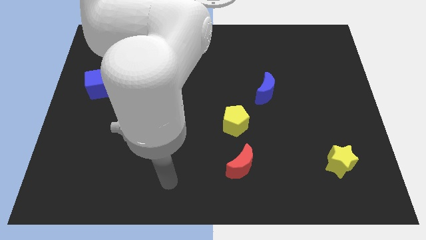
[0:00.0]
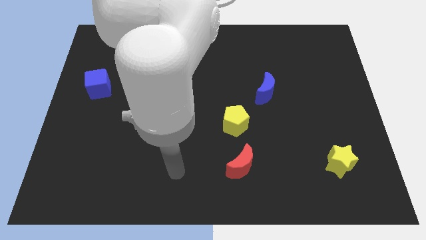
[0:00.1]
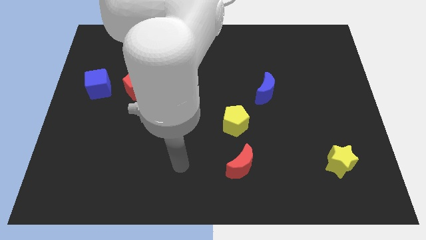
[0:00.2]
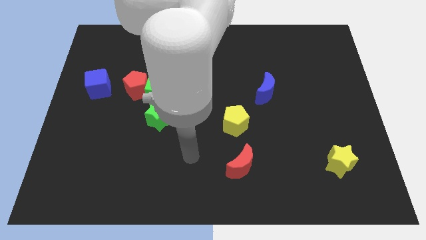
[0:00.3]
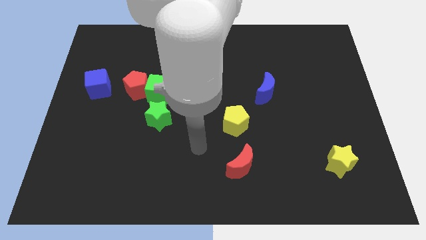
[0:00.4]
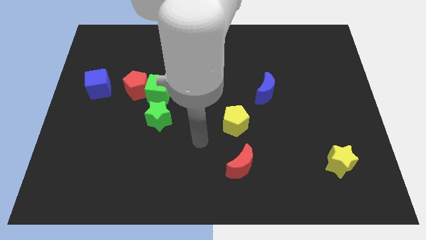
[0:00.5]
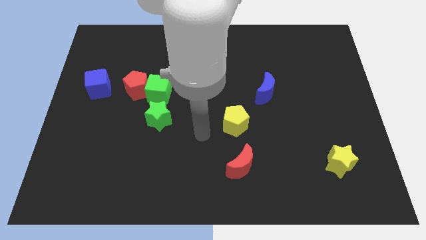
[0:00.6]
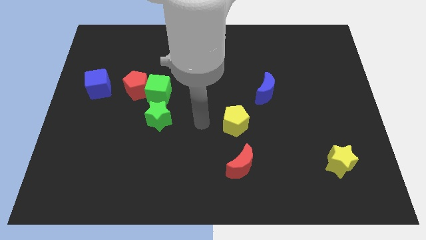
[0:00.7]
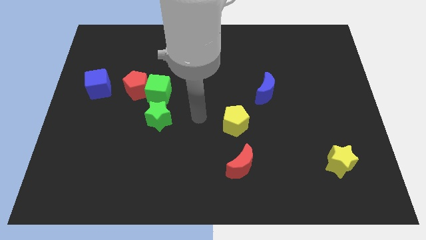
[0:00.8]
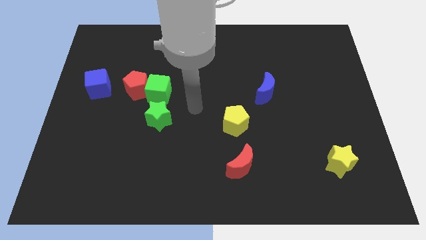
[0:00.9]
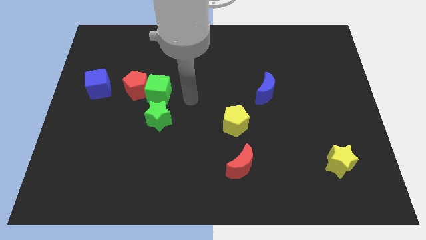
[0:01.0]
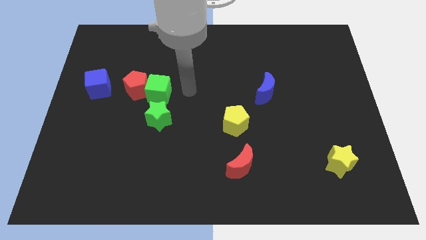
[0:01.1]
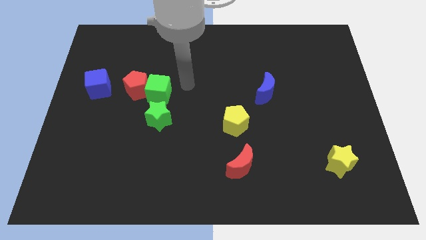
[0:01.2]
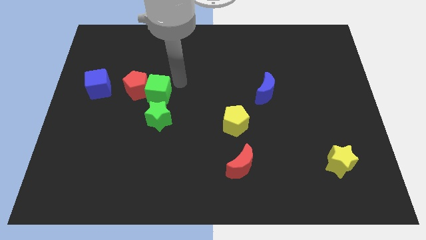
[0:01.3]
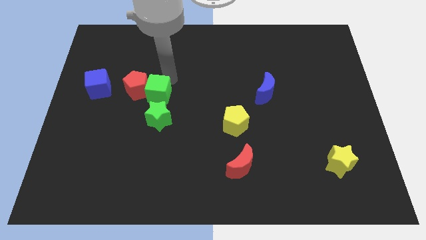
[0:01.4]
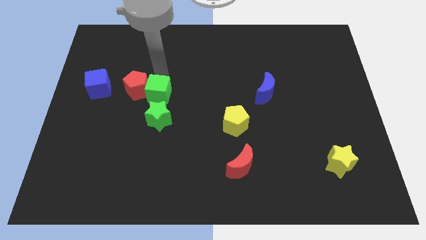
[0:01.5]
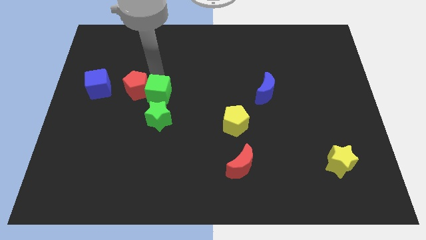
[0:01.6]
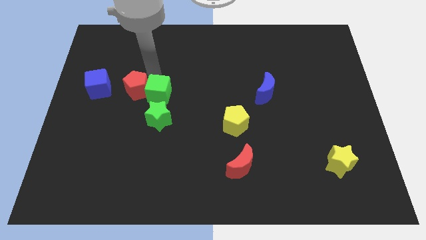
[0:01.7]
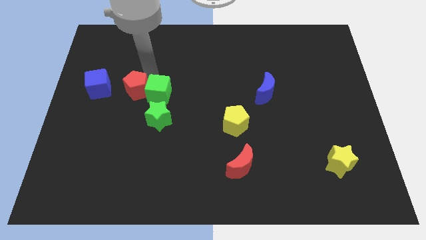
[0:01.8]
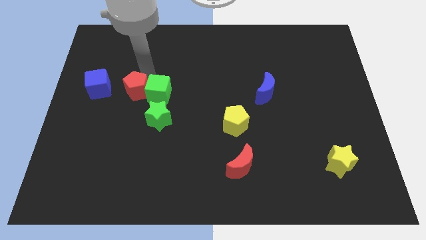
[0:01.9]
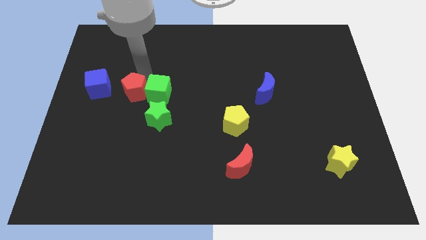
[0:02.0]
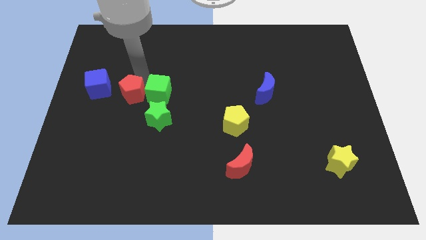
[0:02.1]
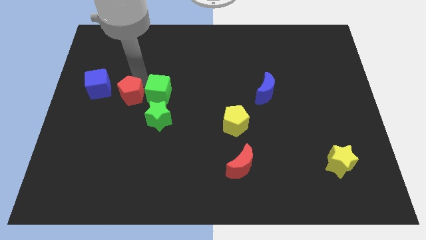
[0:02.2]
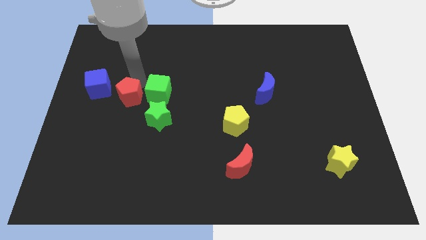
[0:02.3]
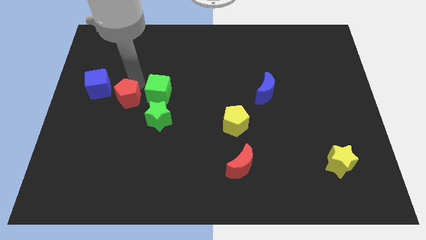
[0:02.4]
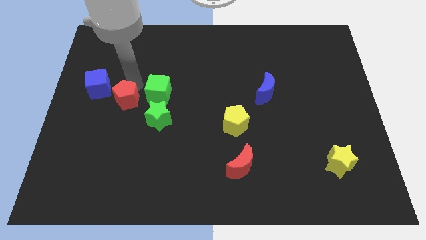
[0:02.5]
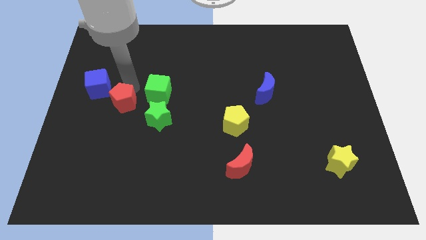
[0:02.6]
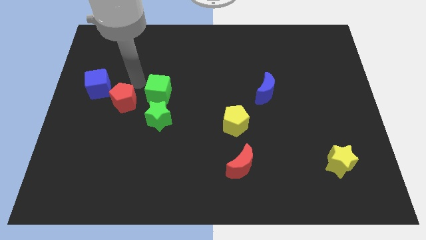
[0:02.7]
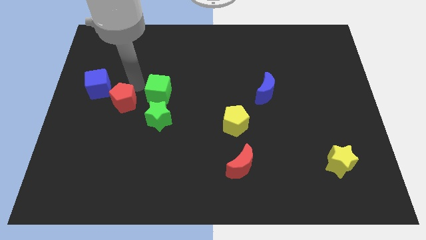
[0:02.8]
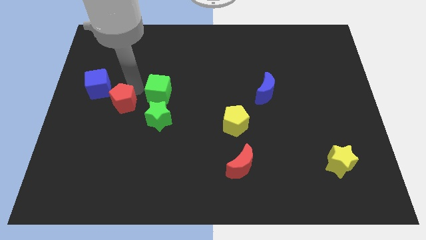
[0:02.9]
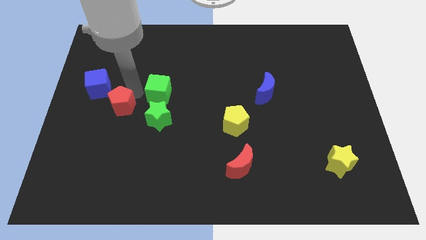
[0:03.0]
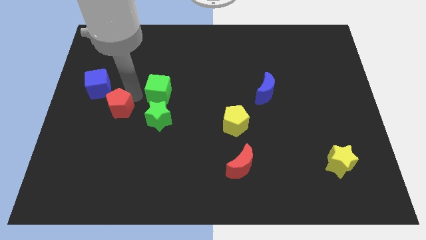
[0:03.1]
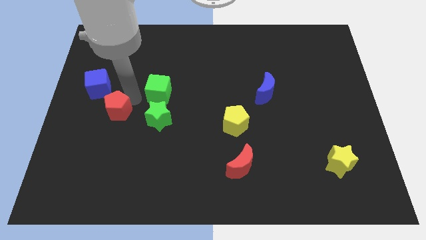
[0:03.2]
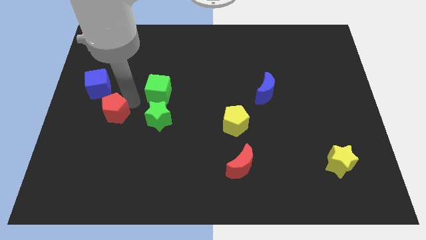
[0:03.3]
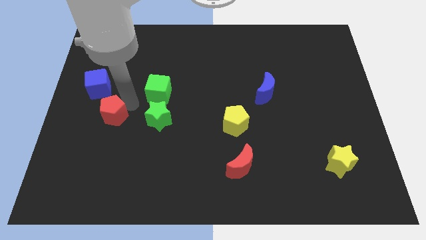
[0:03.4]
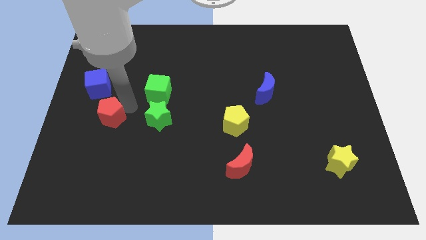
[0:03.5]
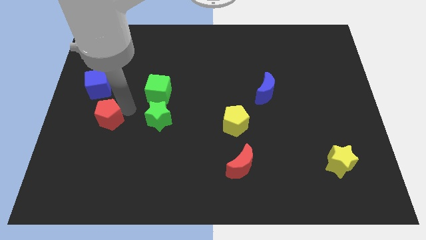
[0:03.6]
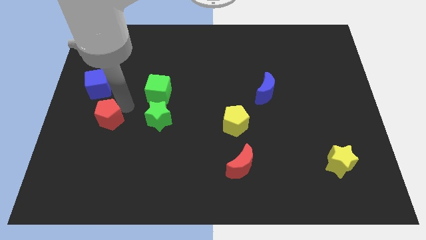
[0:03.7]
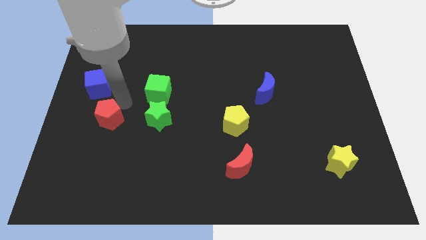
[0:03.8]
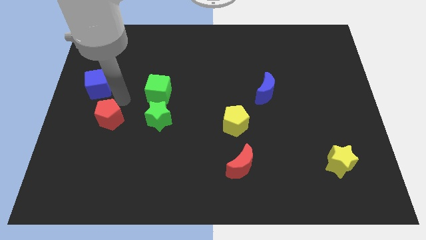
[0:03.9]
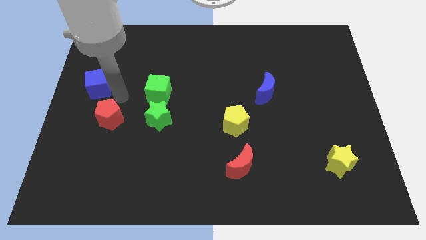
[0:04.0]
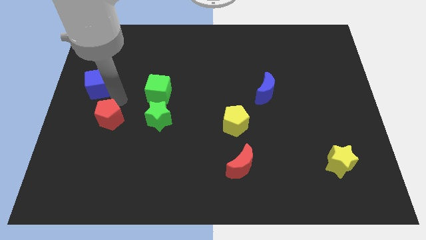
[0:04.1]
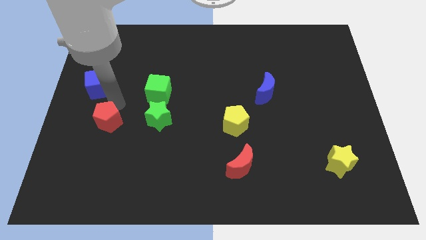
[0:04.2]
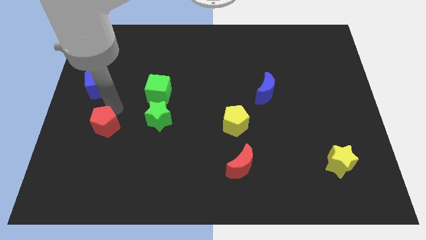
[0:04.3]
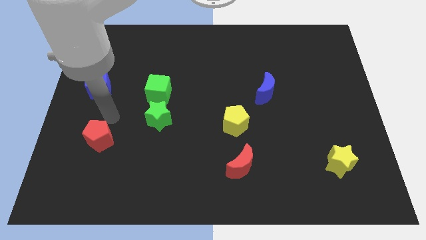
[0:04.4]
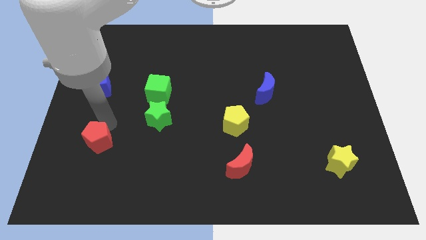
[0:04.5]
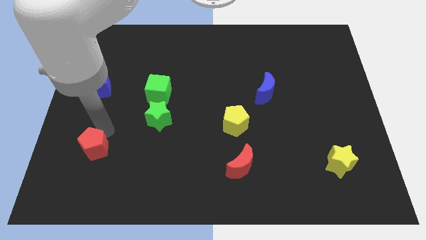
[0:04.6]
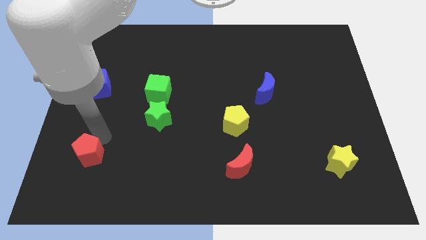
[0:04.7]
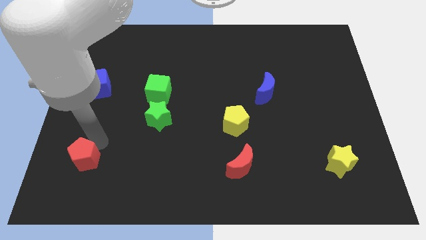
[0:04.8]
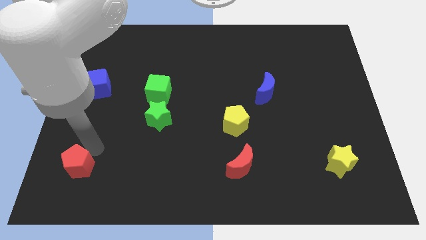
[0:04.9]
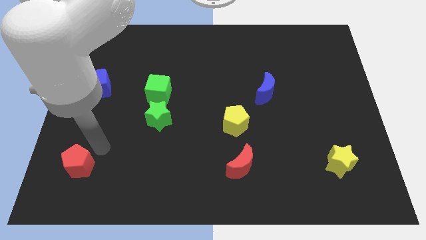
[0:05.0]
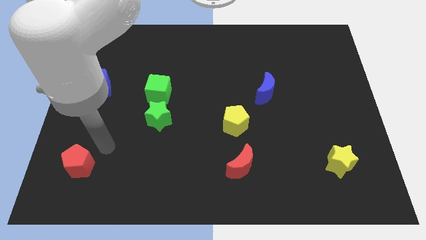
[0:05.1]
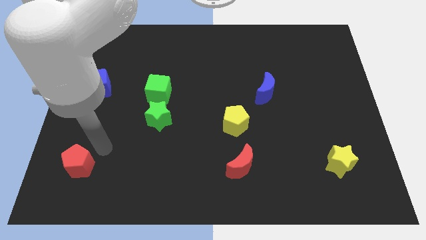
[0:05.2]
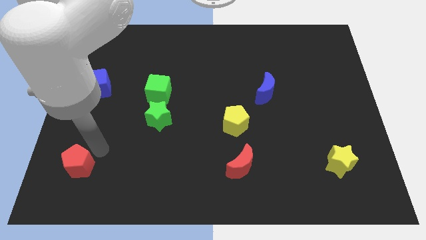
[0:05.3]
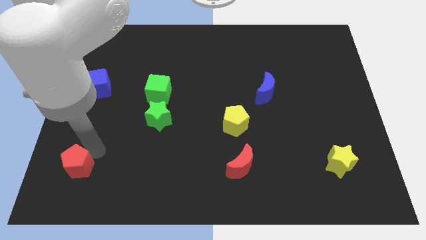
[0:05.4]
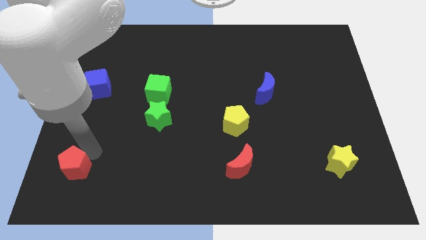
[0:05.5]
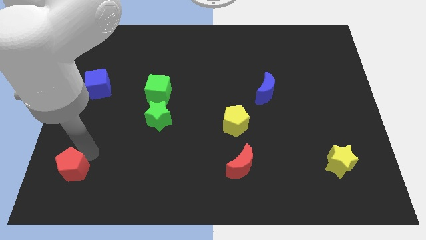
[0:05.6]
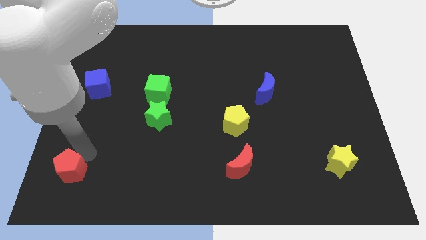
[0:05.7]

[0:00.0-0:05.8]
move the red pentagon to the lower left corner

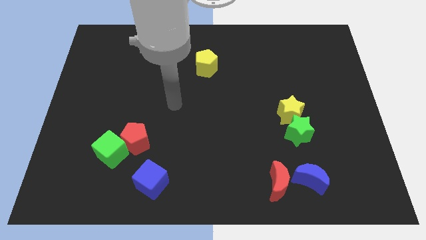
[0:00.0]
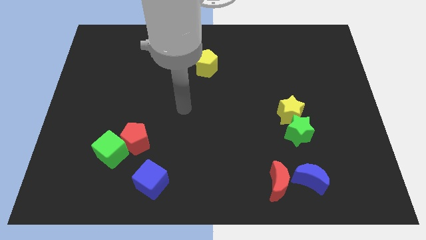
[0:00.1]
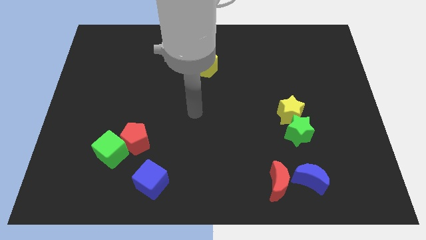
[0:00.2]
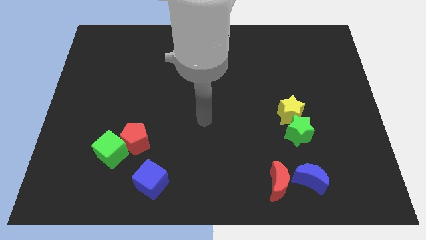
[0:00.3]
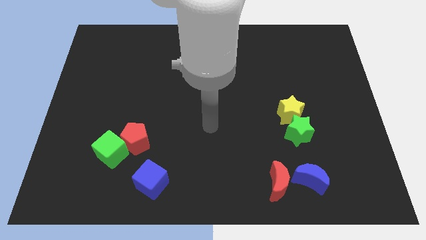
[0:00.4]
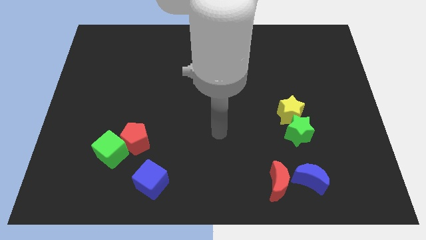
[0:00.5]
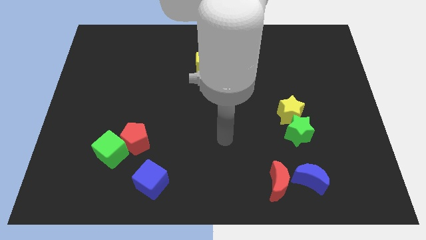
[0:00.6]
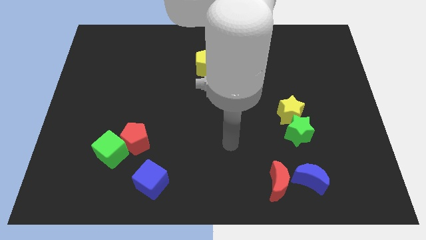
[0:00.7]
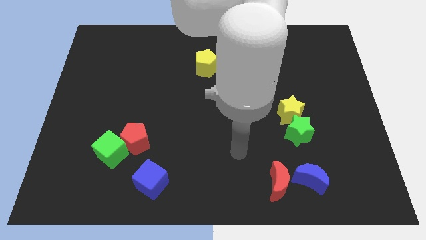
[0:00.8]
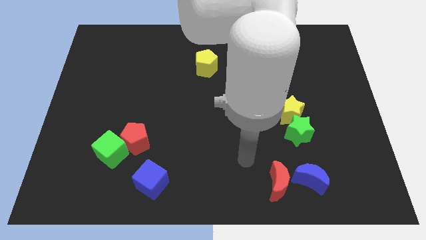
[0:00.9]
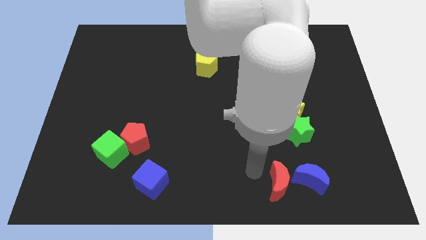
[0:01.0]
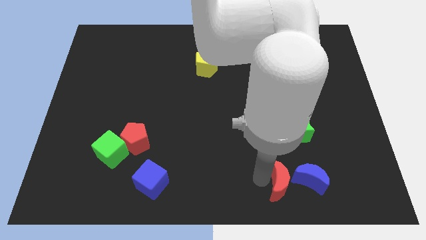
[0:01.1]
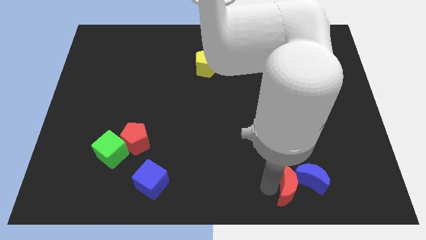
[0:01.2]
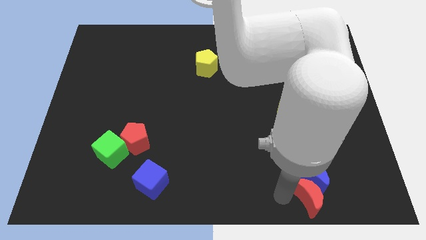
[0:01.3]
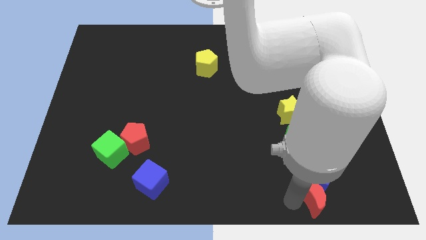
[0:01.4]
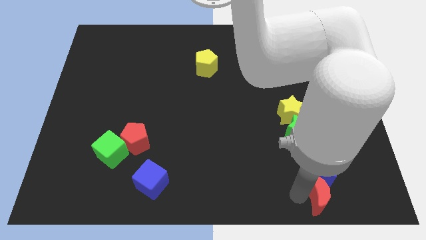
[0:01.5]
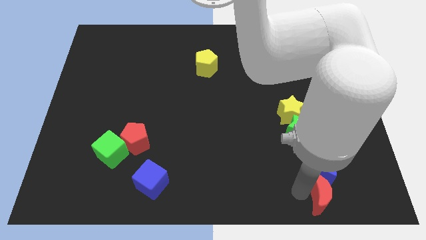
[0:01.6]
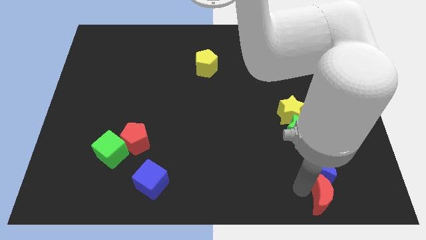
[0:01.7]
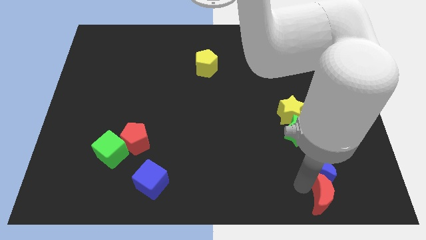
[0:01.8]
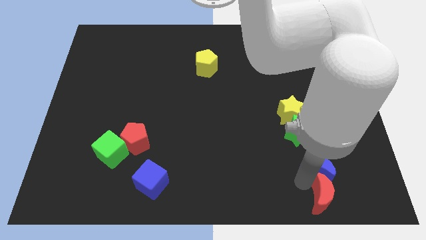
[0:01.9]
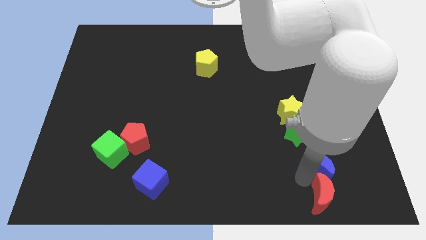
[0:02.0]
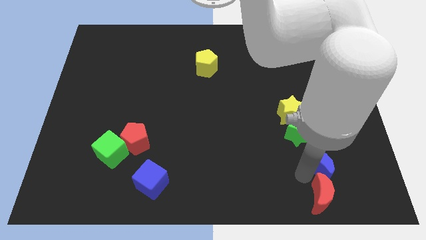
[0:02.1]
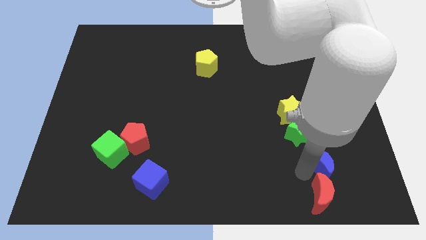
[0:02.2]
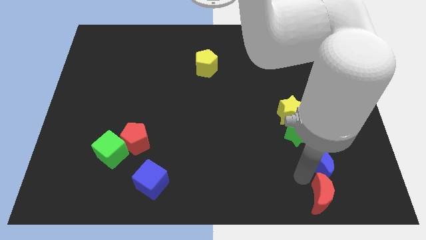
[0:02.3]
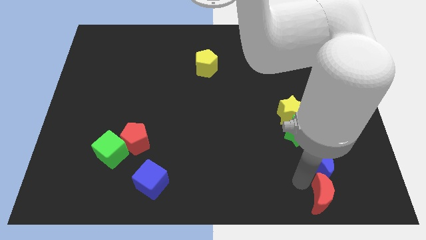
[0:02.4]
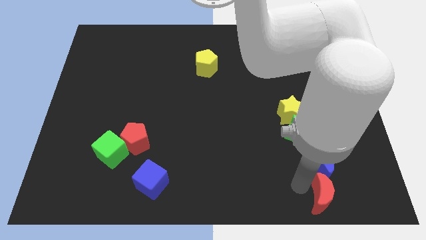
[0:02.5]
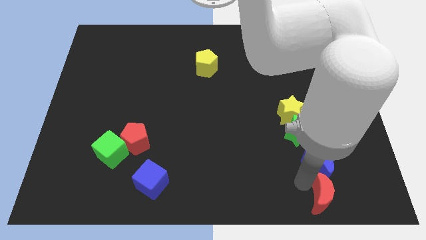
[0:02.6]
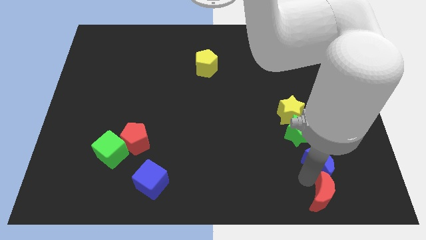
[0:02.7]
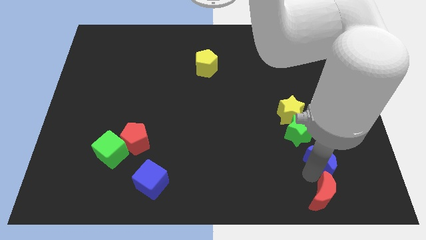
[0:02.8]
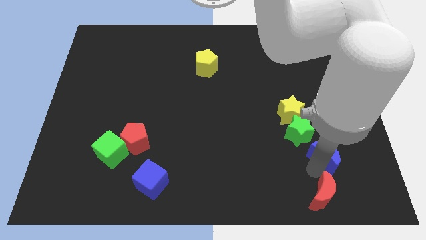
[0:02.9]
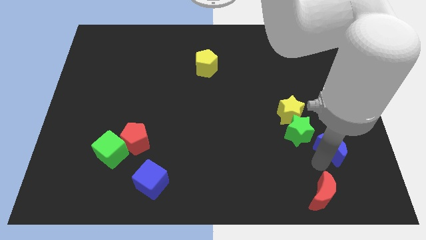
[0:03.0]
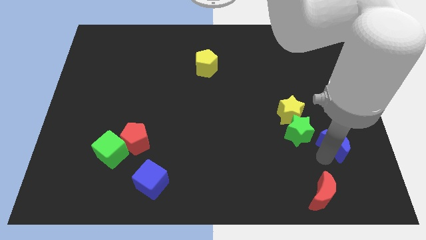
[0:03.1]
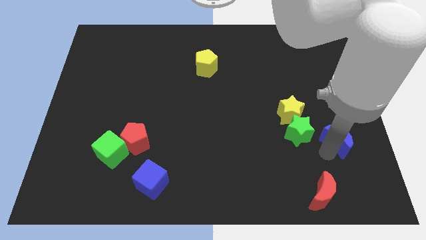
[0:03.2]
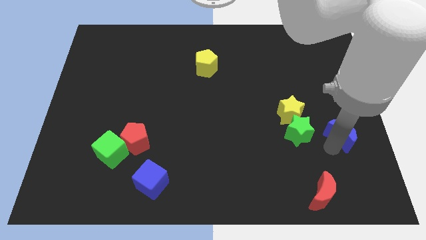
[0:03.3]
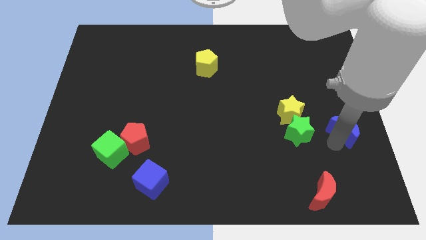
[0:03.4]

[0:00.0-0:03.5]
move the blue moon to the center right
